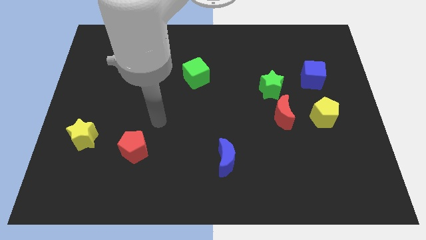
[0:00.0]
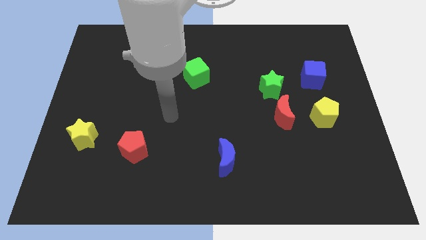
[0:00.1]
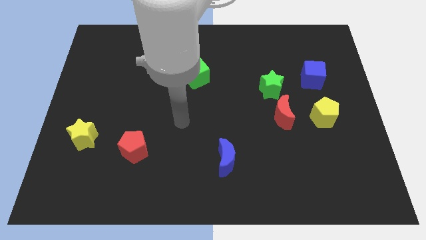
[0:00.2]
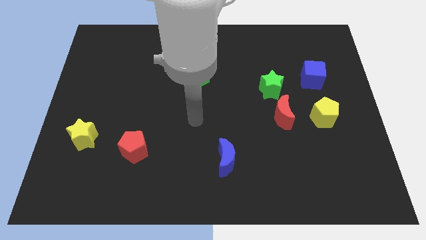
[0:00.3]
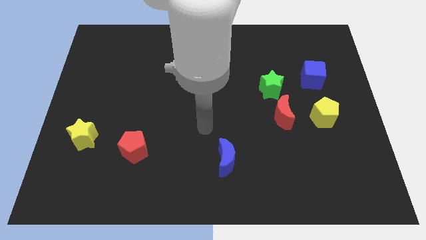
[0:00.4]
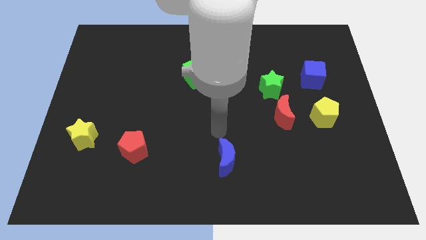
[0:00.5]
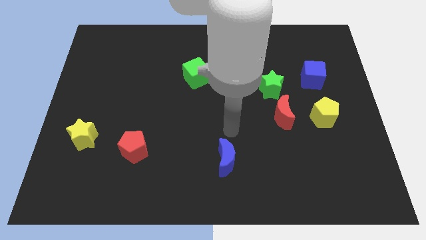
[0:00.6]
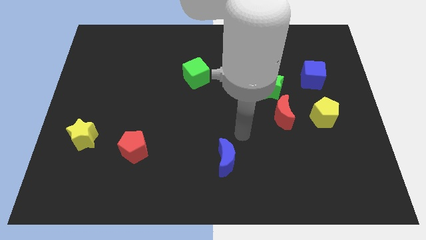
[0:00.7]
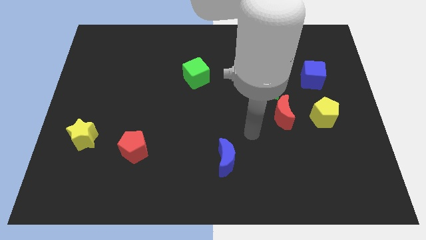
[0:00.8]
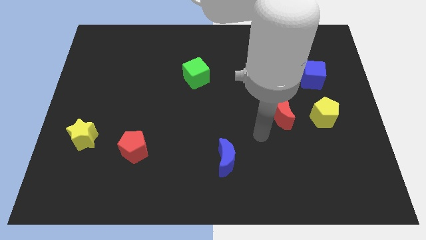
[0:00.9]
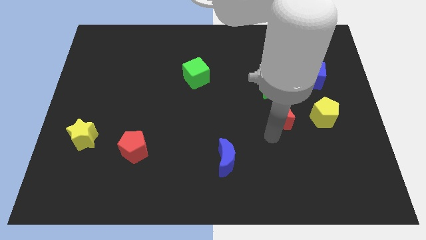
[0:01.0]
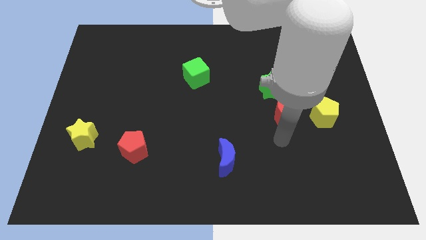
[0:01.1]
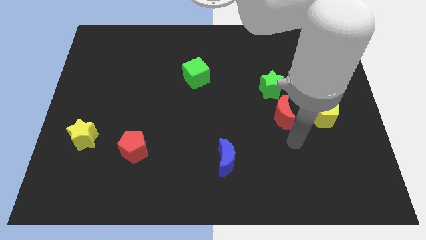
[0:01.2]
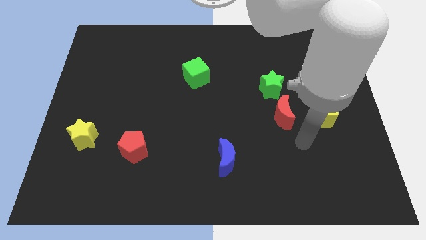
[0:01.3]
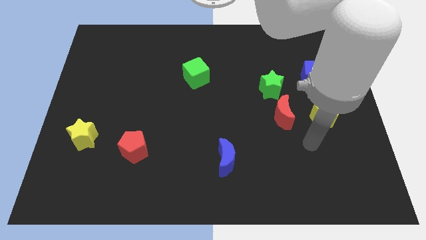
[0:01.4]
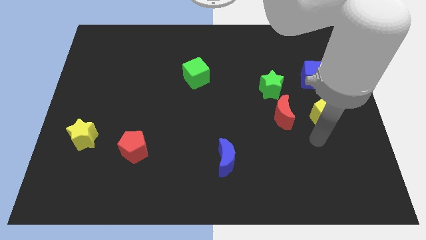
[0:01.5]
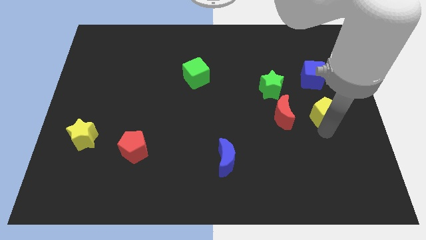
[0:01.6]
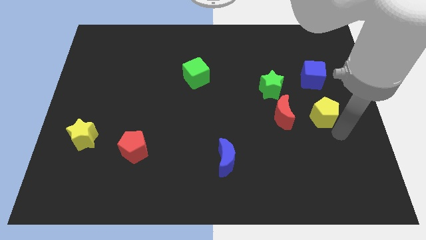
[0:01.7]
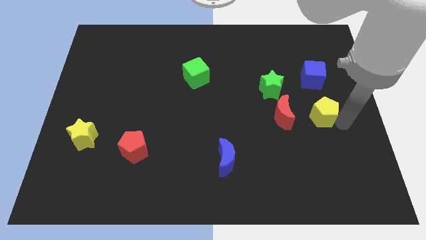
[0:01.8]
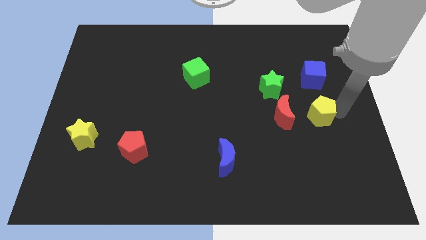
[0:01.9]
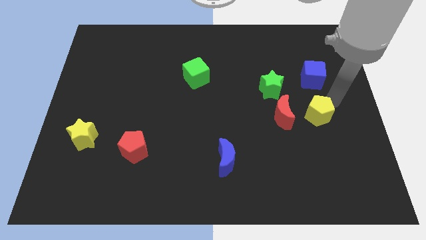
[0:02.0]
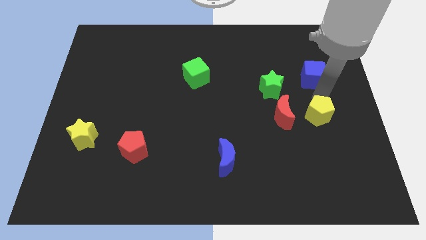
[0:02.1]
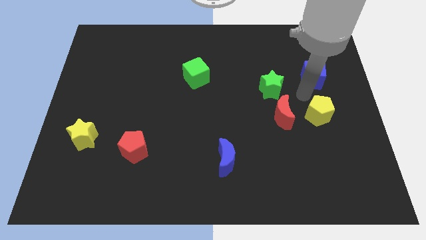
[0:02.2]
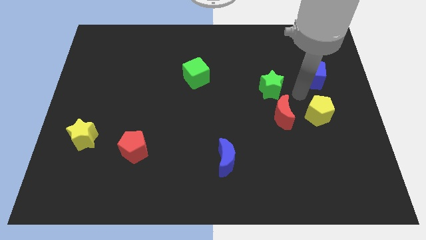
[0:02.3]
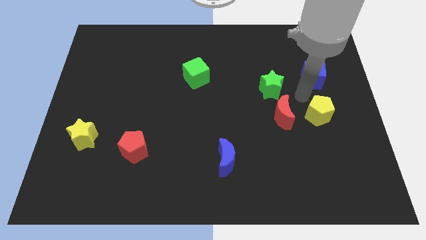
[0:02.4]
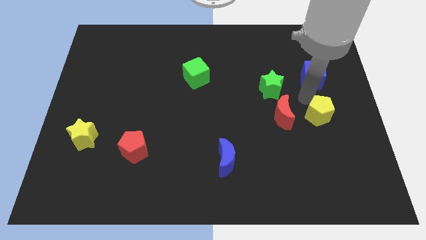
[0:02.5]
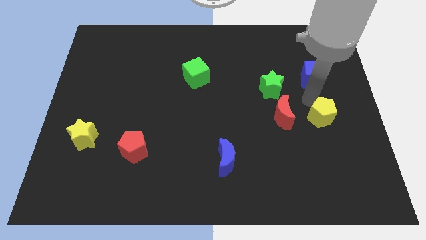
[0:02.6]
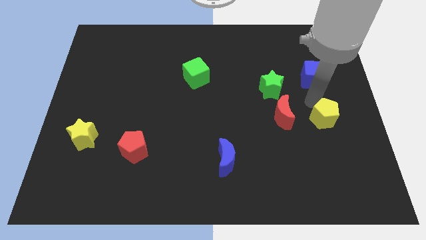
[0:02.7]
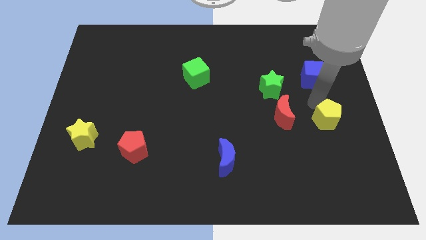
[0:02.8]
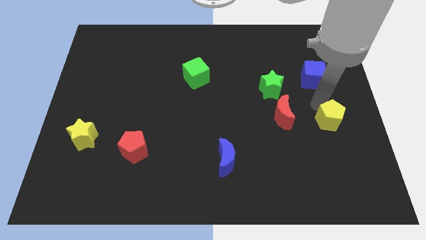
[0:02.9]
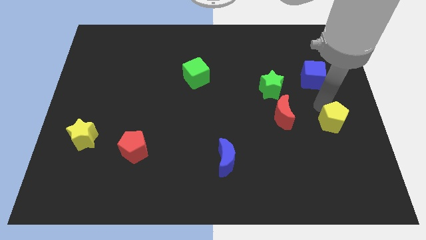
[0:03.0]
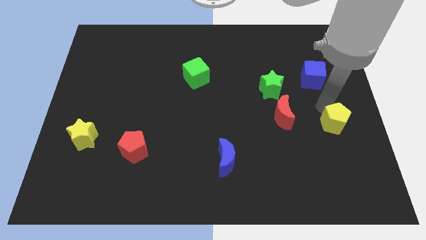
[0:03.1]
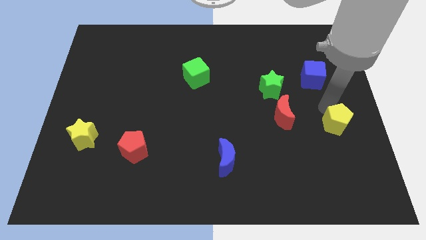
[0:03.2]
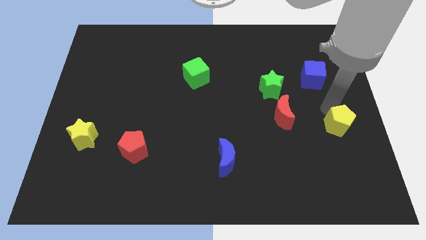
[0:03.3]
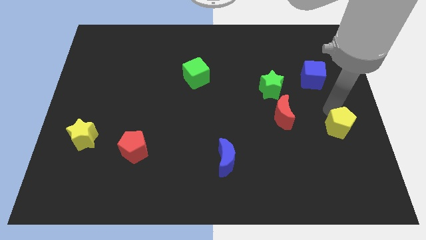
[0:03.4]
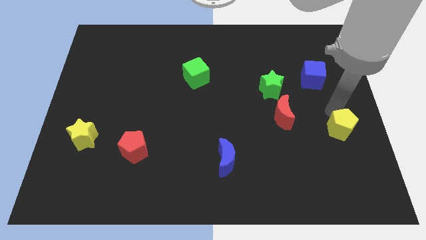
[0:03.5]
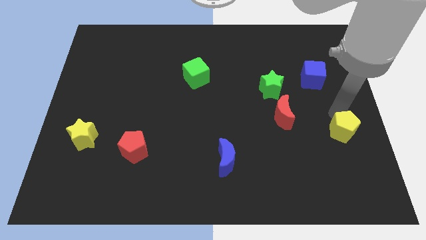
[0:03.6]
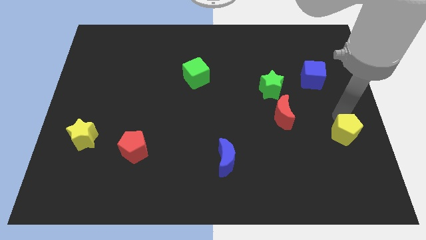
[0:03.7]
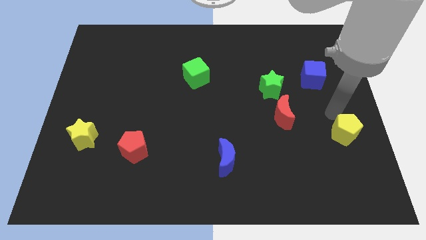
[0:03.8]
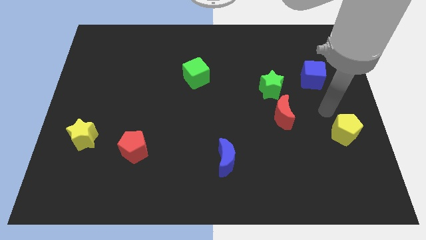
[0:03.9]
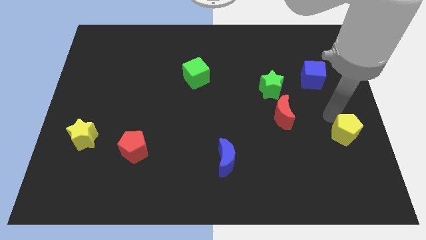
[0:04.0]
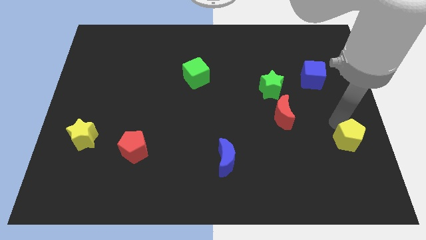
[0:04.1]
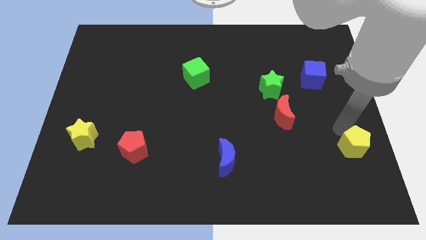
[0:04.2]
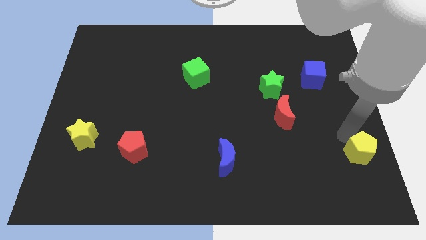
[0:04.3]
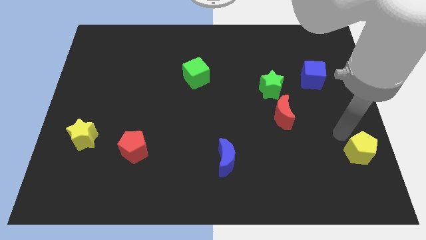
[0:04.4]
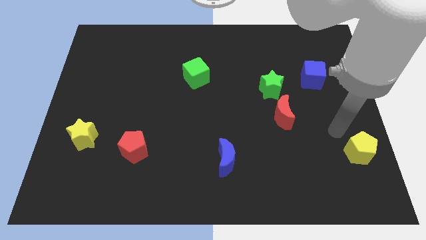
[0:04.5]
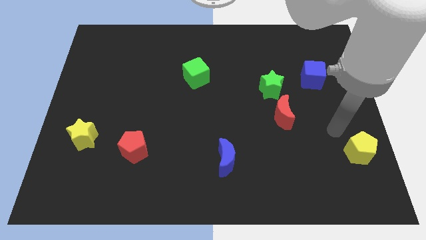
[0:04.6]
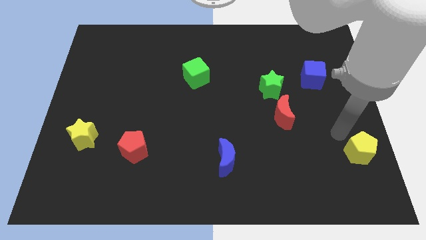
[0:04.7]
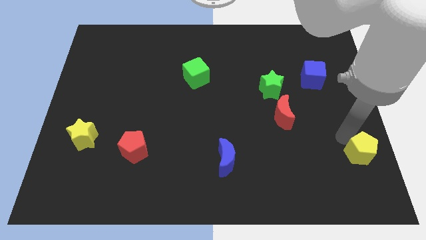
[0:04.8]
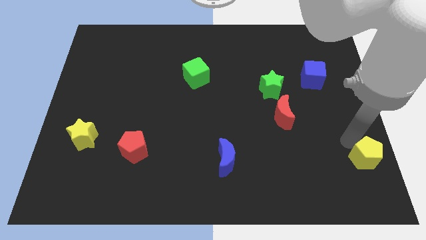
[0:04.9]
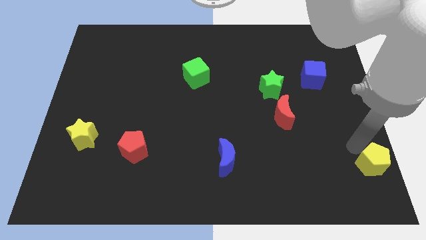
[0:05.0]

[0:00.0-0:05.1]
push the yellow pentagon to the bottom right corner
